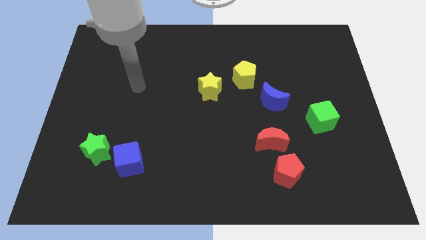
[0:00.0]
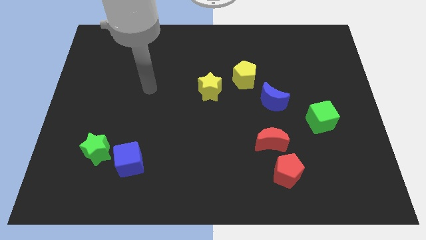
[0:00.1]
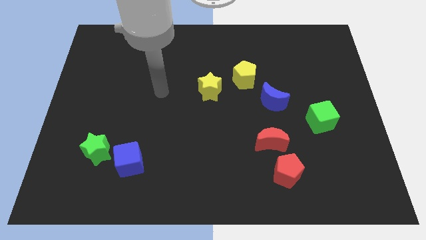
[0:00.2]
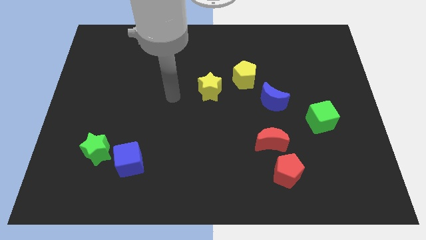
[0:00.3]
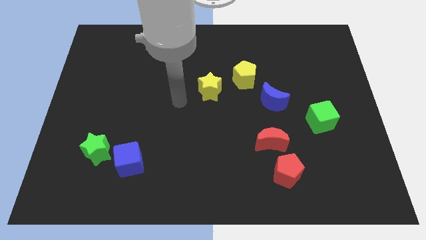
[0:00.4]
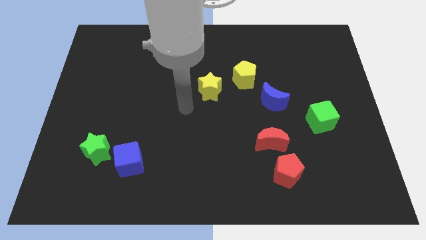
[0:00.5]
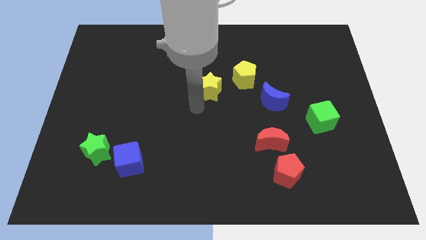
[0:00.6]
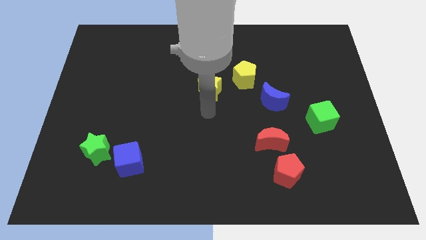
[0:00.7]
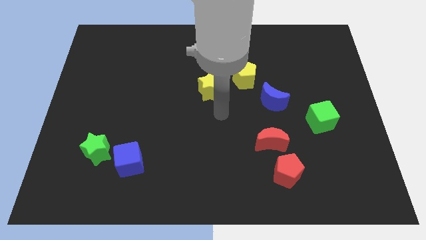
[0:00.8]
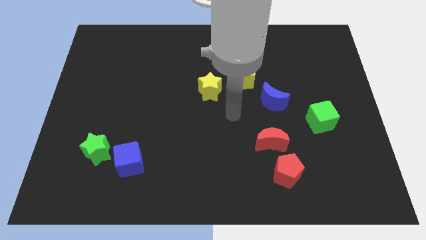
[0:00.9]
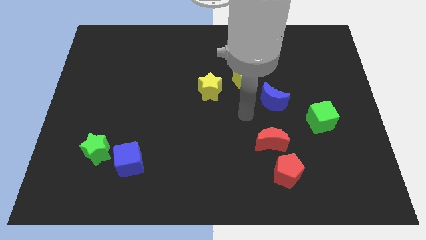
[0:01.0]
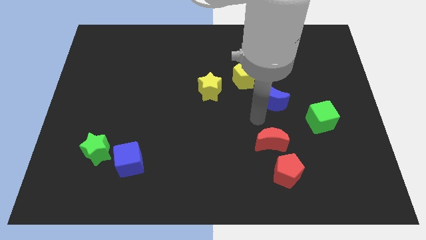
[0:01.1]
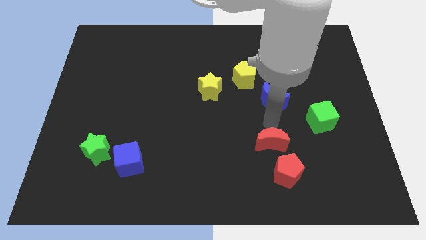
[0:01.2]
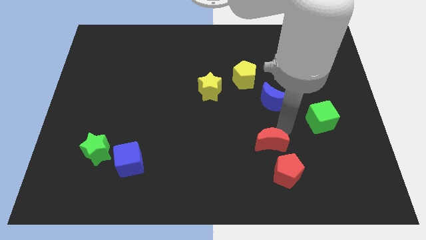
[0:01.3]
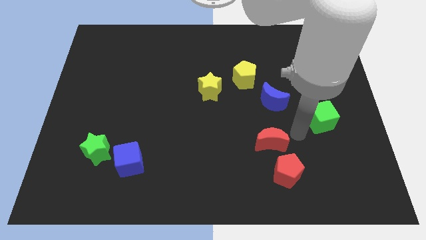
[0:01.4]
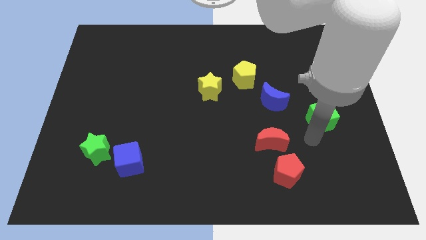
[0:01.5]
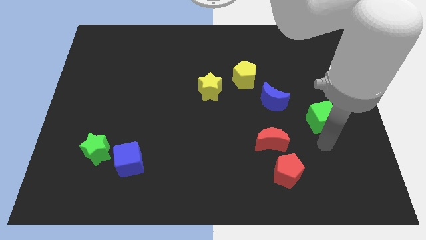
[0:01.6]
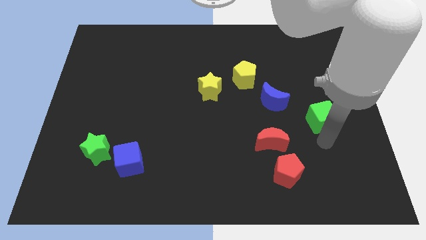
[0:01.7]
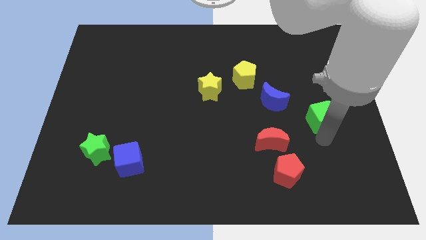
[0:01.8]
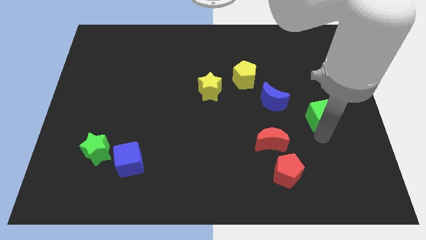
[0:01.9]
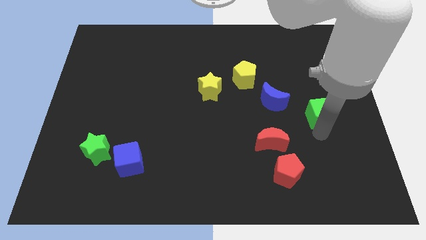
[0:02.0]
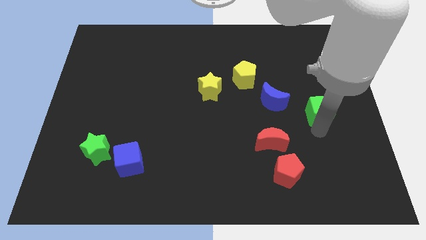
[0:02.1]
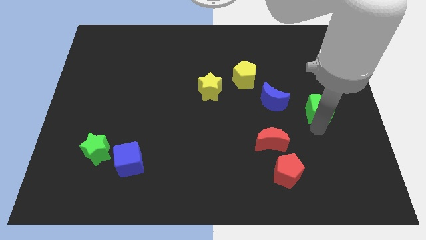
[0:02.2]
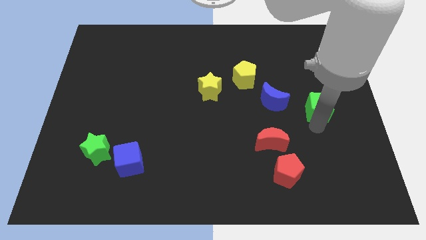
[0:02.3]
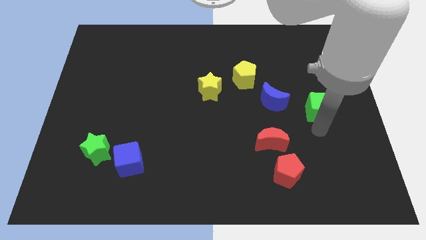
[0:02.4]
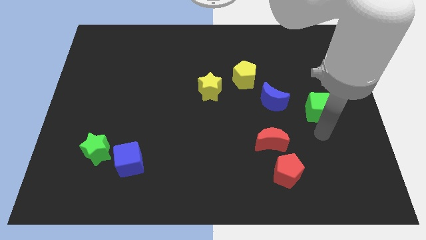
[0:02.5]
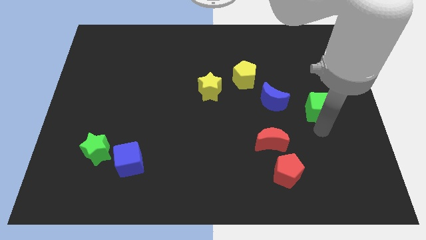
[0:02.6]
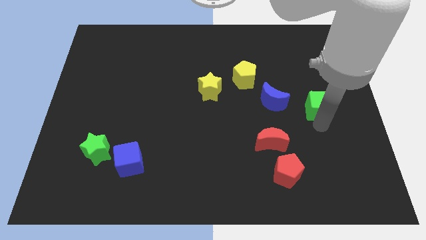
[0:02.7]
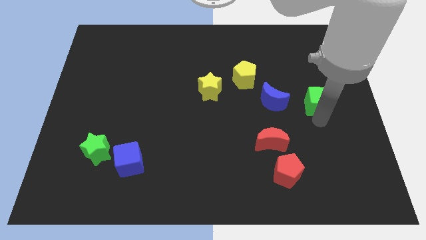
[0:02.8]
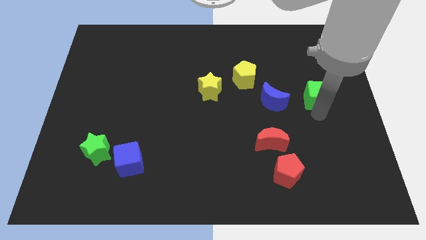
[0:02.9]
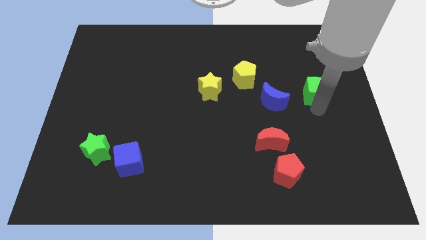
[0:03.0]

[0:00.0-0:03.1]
push the green cube upwards a little

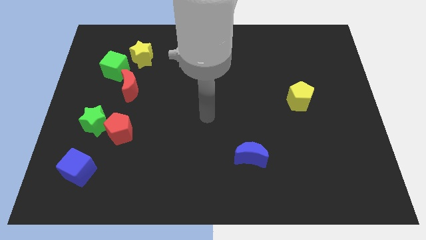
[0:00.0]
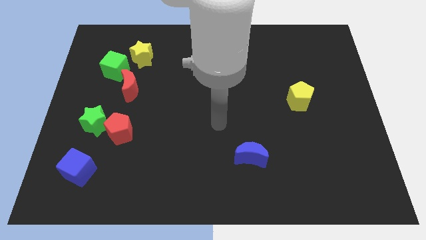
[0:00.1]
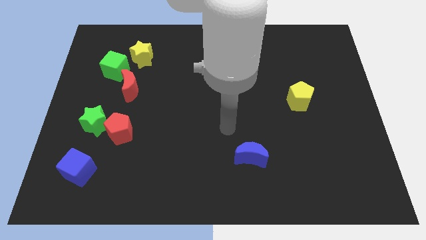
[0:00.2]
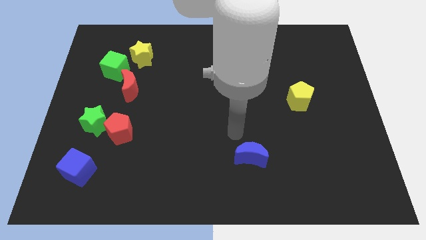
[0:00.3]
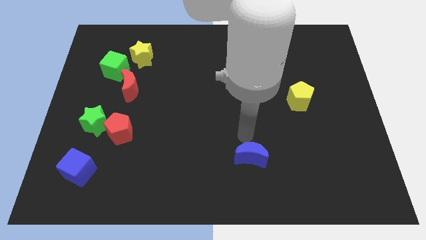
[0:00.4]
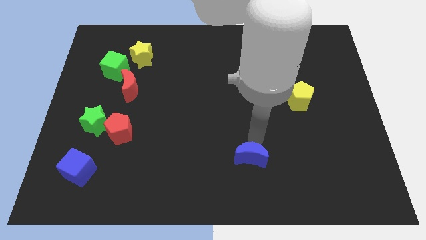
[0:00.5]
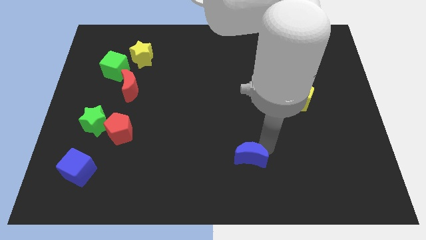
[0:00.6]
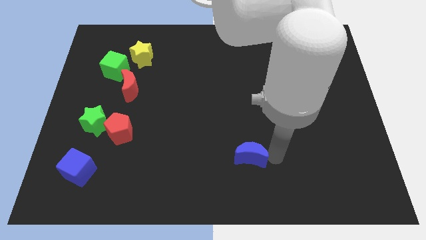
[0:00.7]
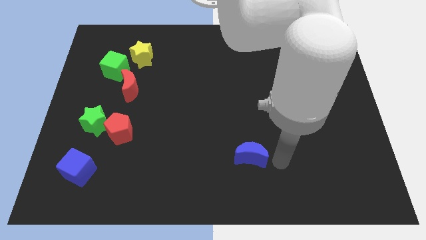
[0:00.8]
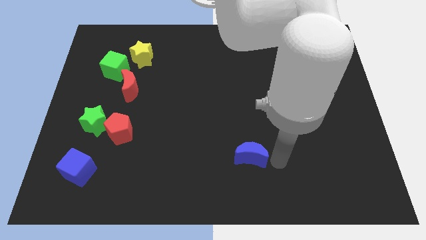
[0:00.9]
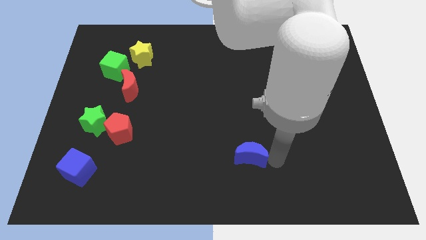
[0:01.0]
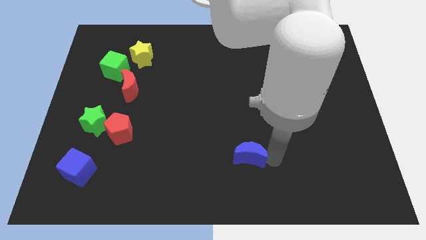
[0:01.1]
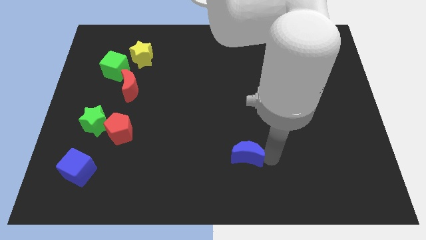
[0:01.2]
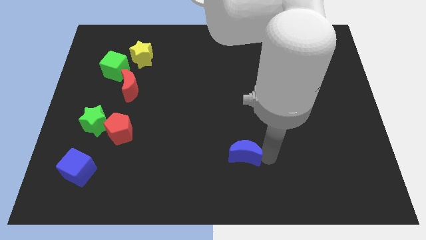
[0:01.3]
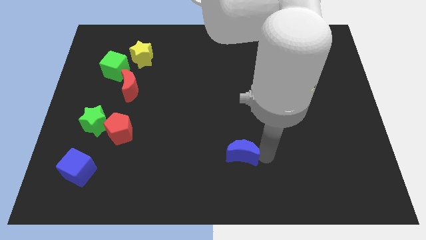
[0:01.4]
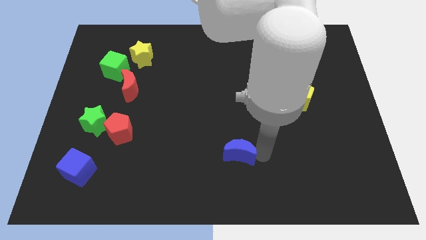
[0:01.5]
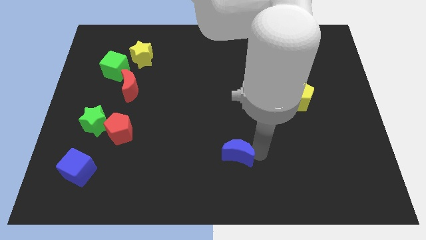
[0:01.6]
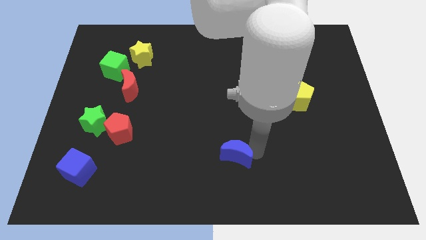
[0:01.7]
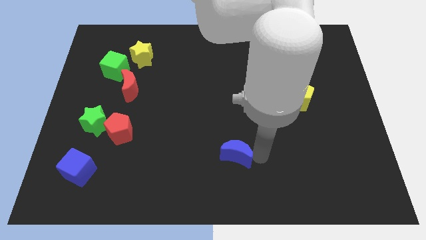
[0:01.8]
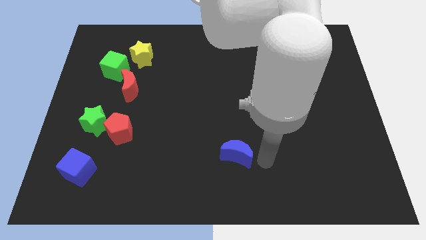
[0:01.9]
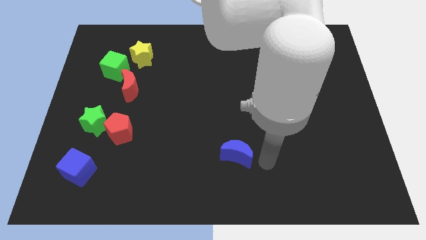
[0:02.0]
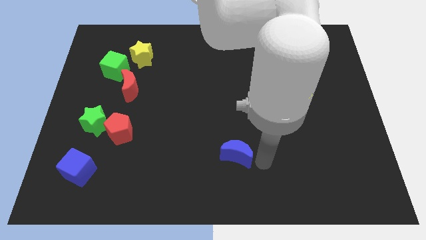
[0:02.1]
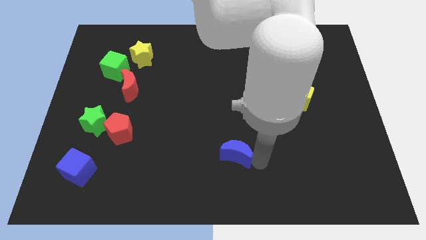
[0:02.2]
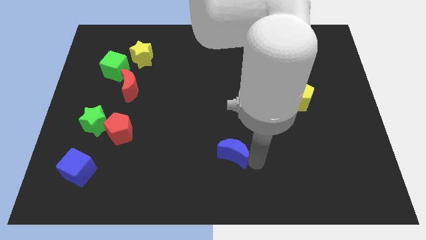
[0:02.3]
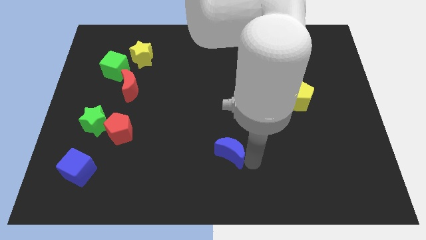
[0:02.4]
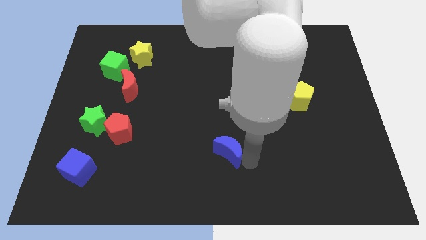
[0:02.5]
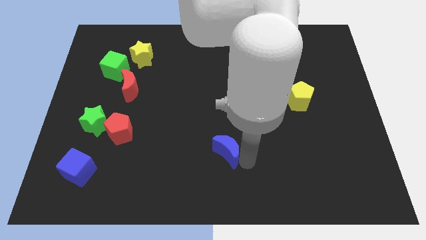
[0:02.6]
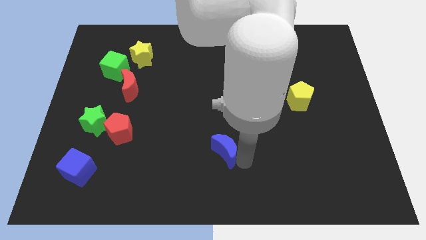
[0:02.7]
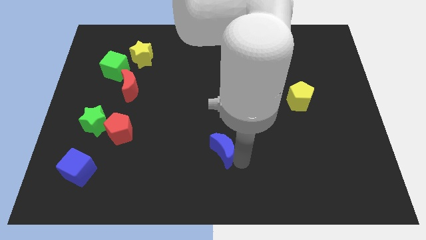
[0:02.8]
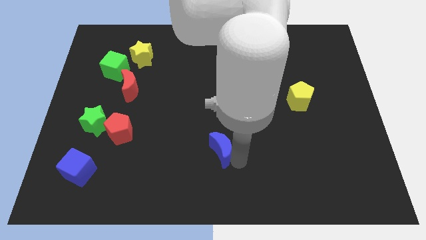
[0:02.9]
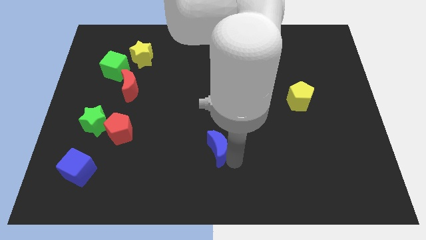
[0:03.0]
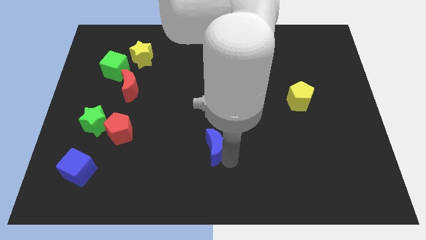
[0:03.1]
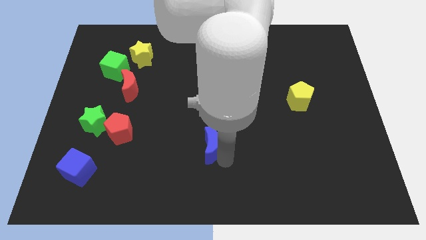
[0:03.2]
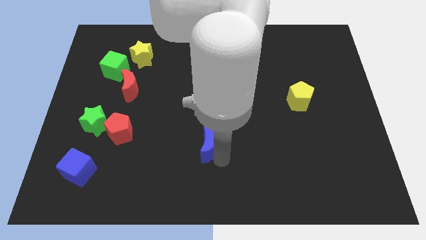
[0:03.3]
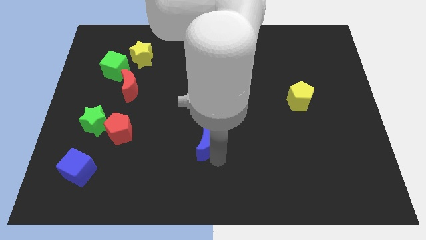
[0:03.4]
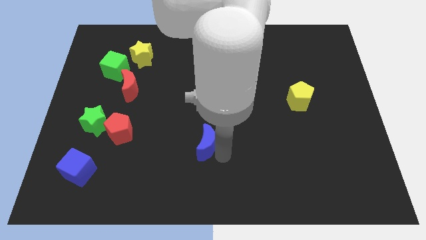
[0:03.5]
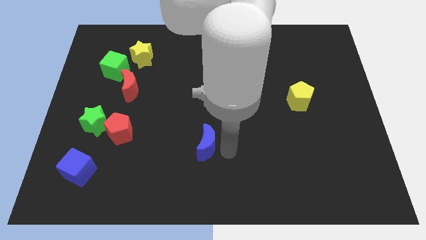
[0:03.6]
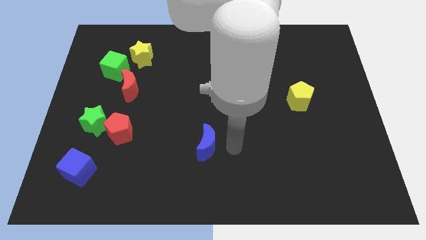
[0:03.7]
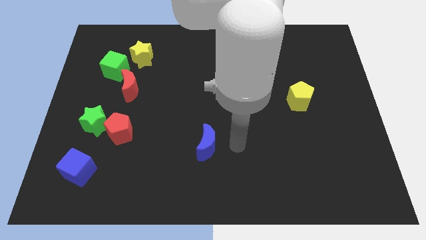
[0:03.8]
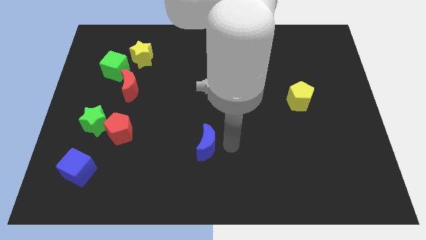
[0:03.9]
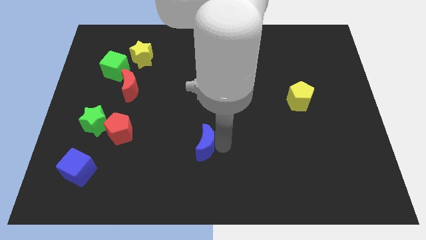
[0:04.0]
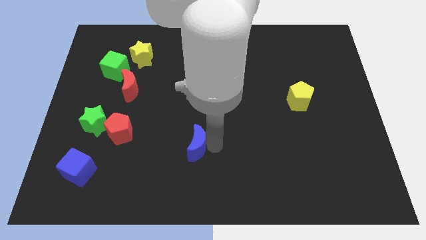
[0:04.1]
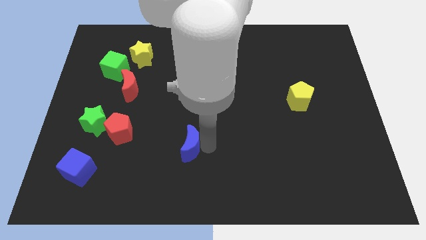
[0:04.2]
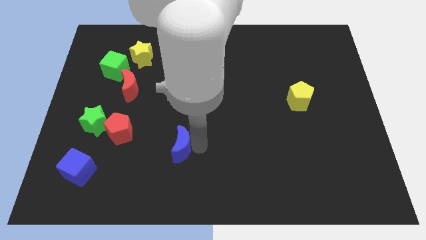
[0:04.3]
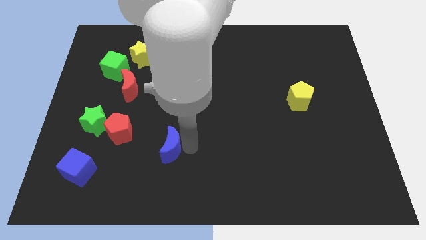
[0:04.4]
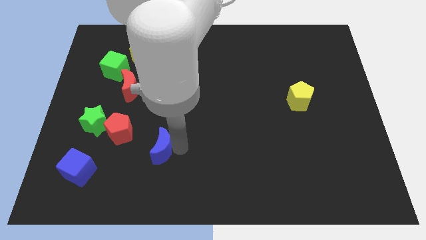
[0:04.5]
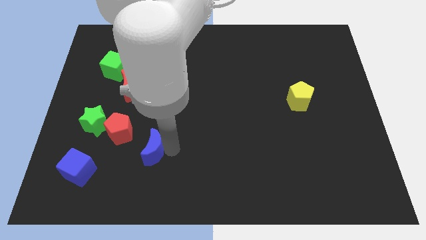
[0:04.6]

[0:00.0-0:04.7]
move the blue moon left

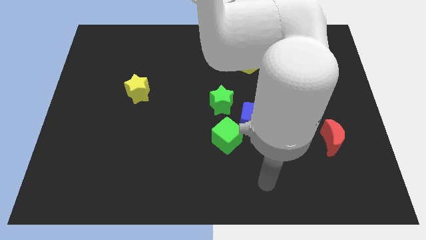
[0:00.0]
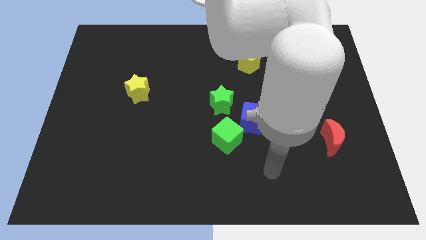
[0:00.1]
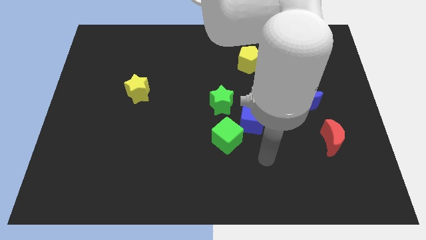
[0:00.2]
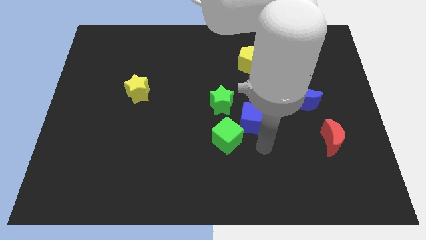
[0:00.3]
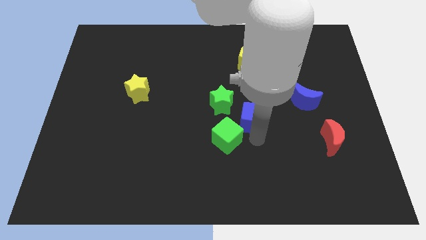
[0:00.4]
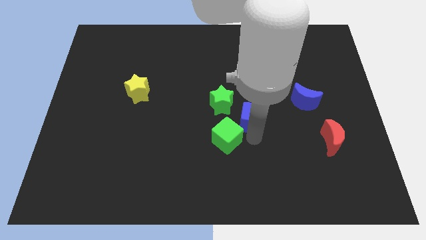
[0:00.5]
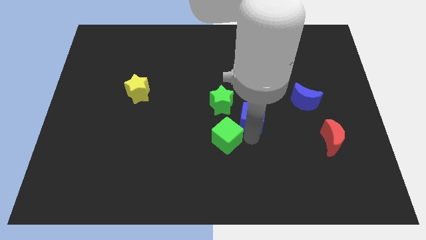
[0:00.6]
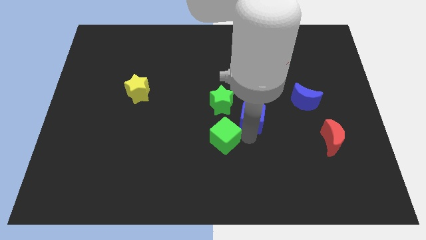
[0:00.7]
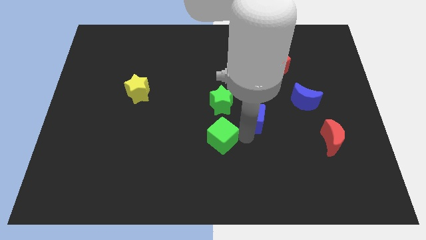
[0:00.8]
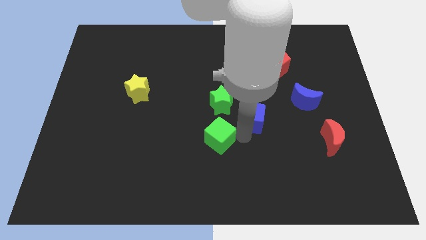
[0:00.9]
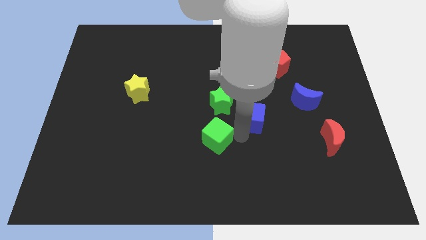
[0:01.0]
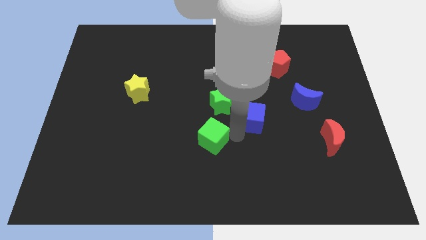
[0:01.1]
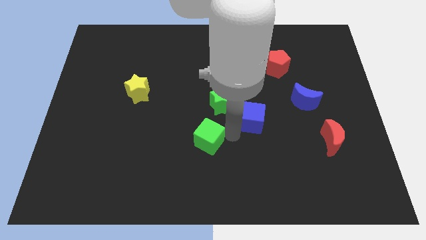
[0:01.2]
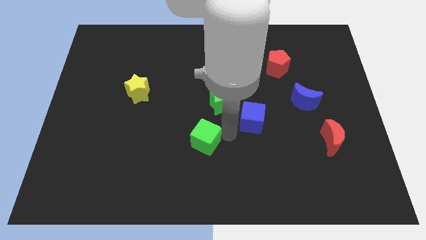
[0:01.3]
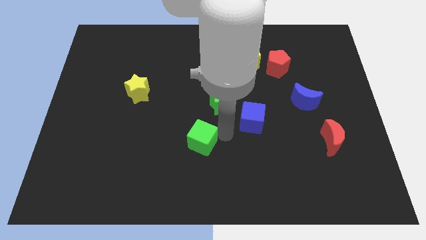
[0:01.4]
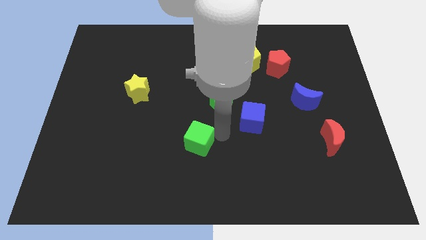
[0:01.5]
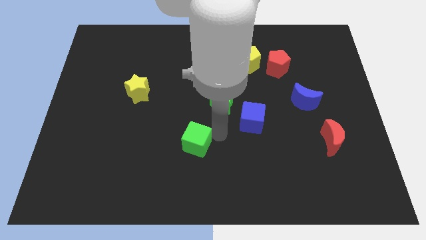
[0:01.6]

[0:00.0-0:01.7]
push the green cube to the left slightly
